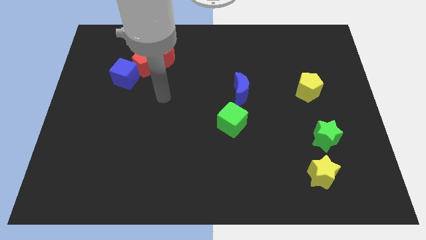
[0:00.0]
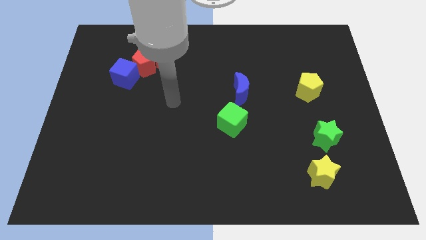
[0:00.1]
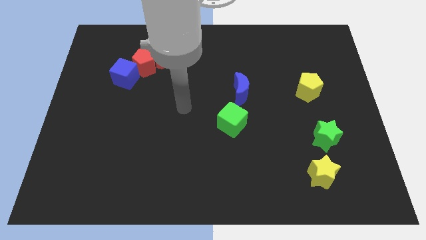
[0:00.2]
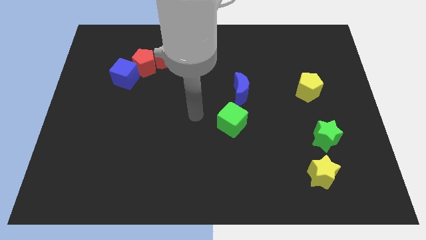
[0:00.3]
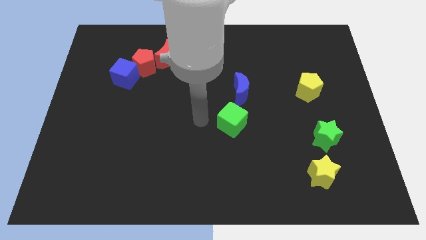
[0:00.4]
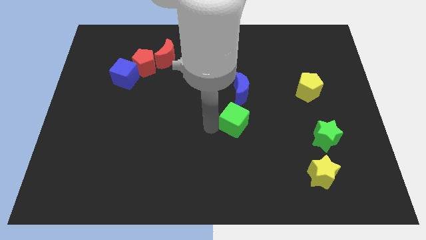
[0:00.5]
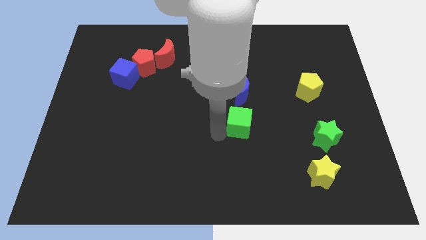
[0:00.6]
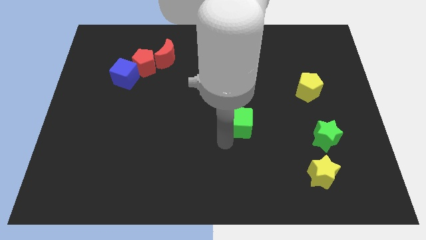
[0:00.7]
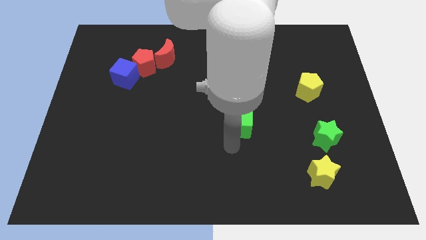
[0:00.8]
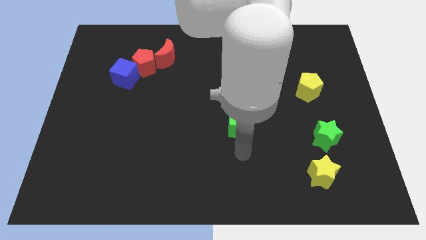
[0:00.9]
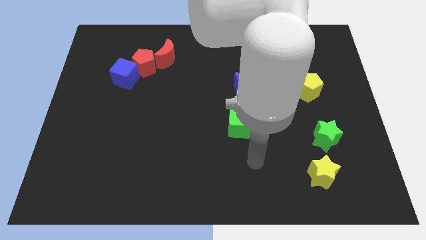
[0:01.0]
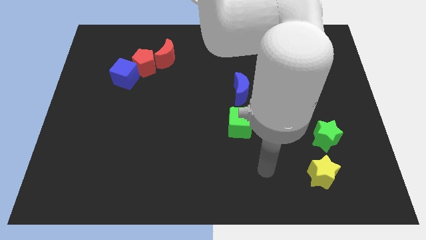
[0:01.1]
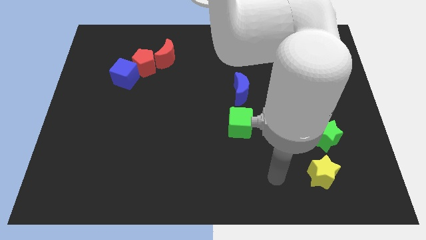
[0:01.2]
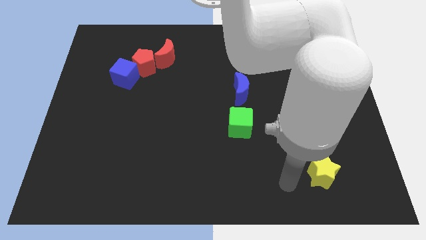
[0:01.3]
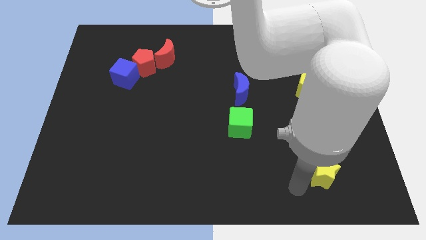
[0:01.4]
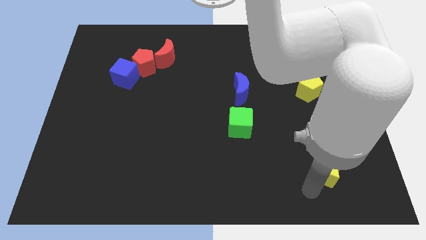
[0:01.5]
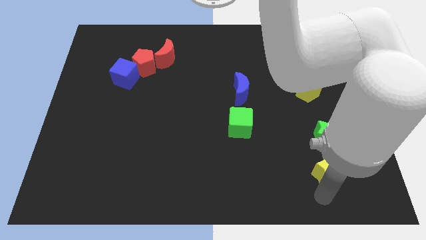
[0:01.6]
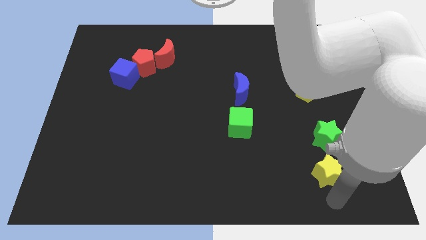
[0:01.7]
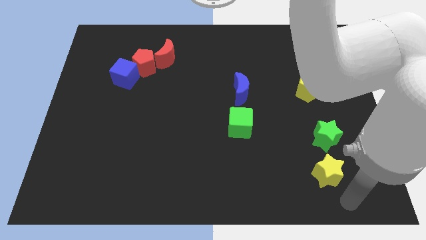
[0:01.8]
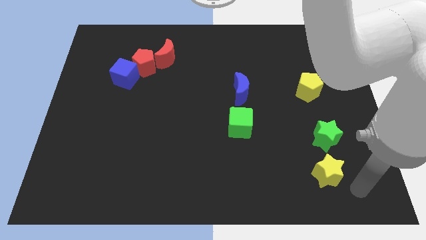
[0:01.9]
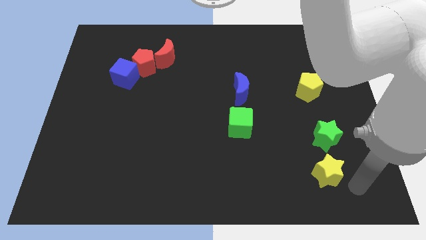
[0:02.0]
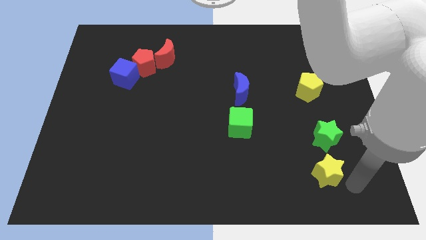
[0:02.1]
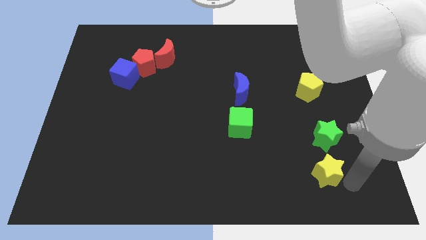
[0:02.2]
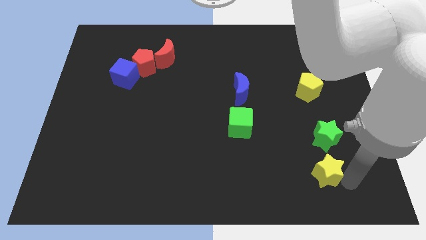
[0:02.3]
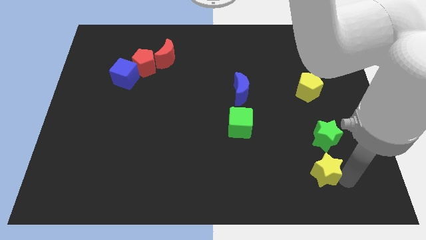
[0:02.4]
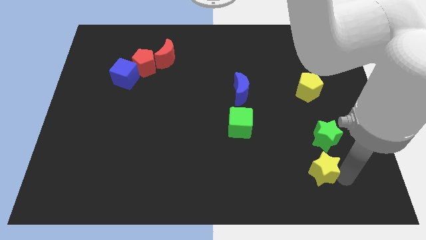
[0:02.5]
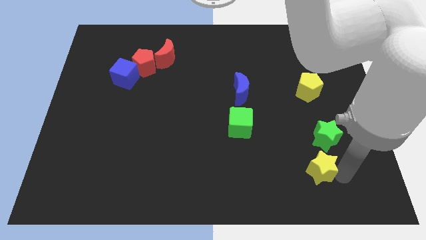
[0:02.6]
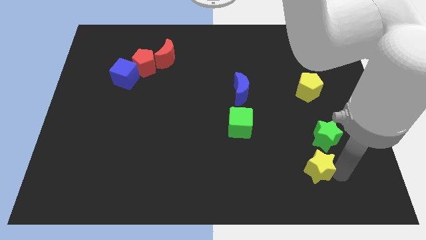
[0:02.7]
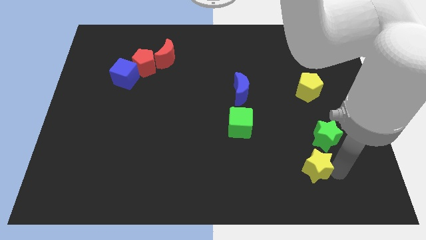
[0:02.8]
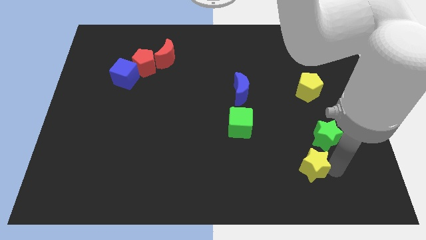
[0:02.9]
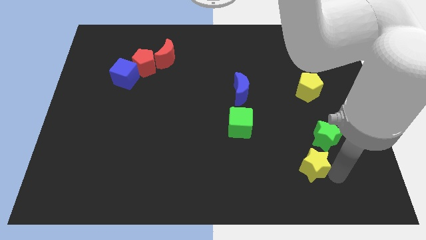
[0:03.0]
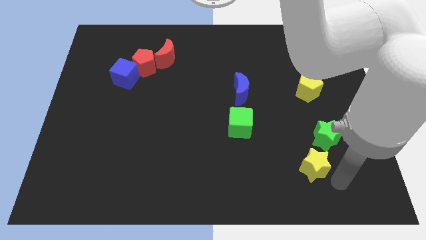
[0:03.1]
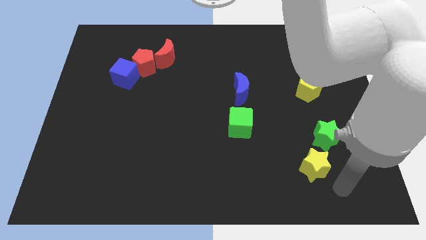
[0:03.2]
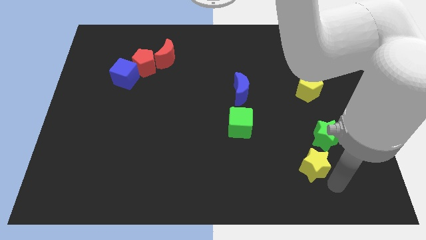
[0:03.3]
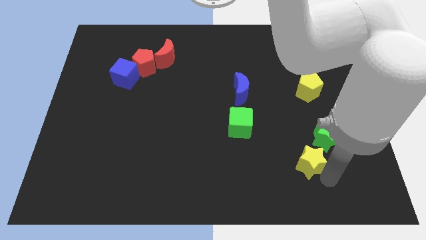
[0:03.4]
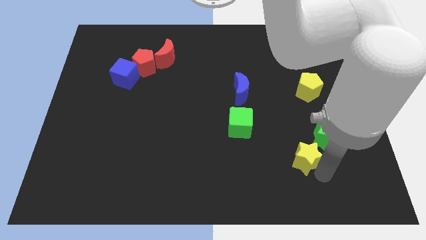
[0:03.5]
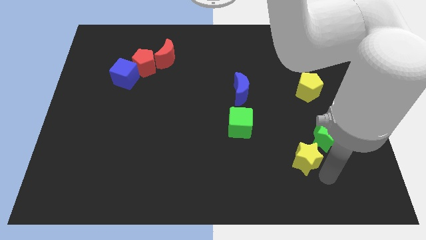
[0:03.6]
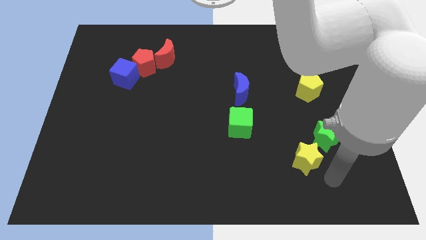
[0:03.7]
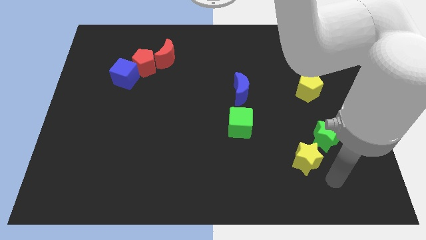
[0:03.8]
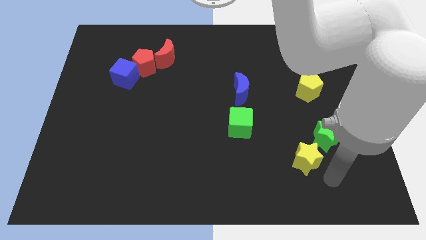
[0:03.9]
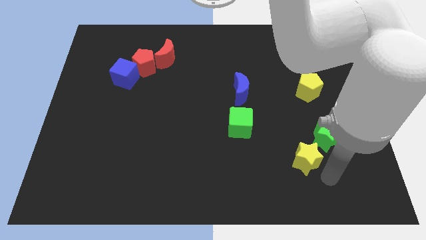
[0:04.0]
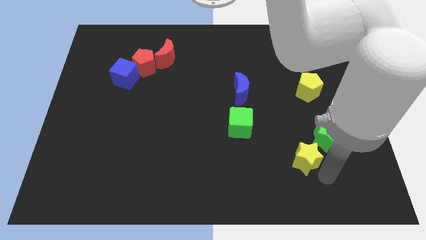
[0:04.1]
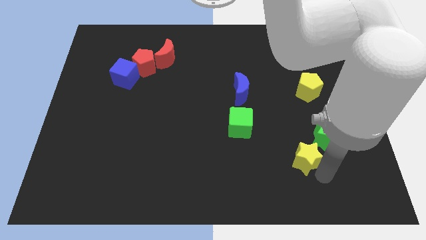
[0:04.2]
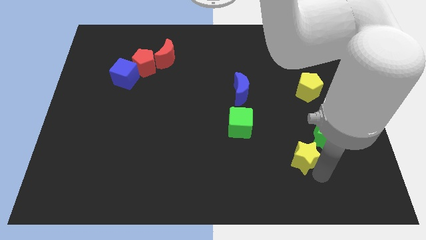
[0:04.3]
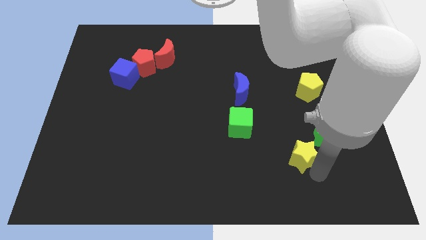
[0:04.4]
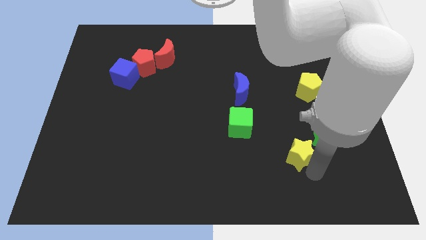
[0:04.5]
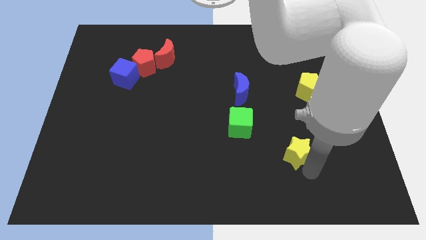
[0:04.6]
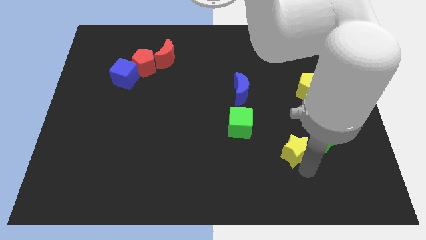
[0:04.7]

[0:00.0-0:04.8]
slide the yellow star diagonally upwards and to the left somewhat

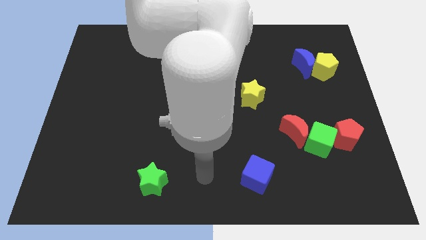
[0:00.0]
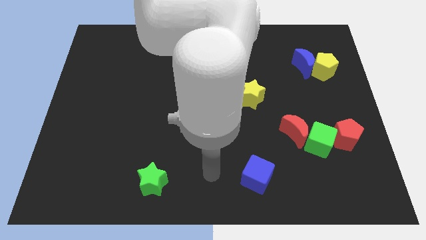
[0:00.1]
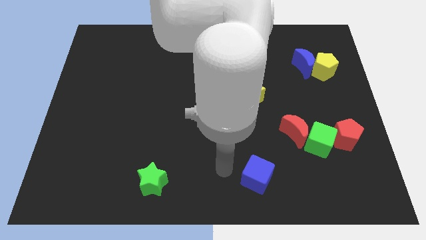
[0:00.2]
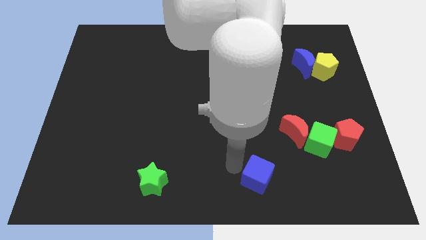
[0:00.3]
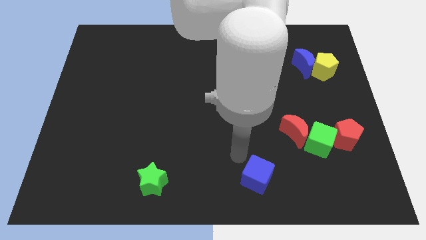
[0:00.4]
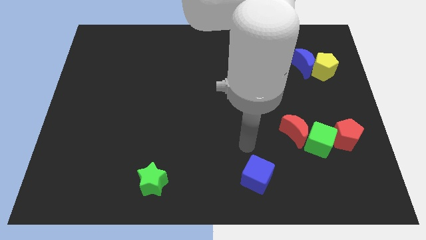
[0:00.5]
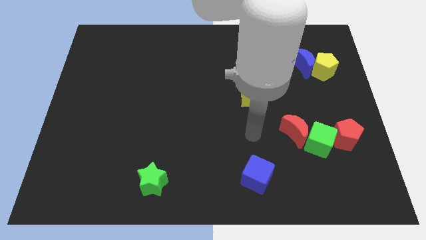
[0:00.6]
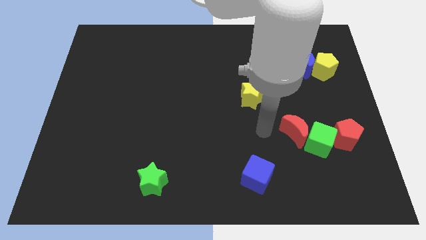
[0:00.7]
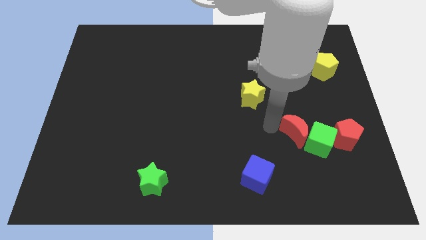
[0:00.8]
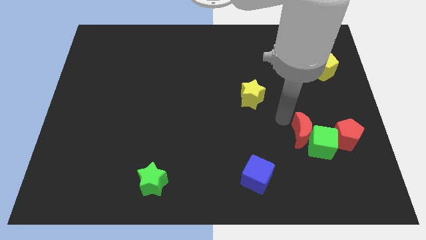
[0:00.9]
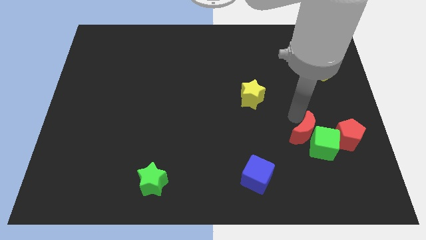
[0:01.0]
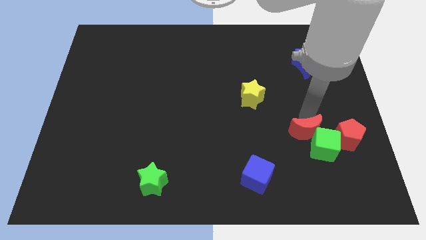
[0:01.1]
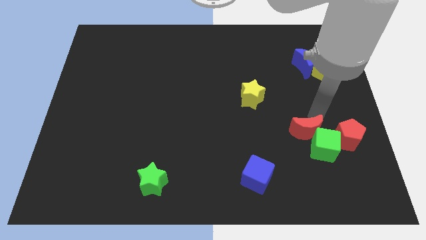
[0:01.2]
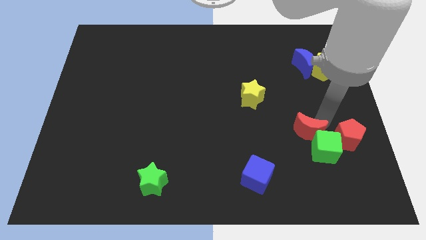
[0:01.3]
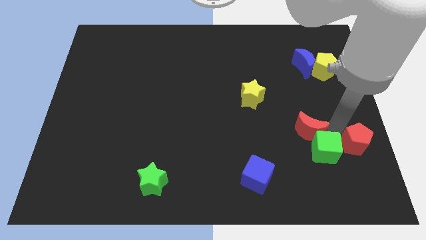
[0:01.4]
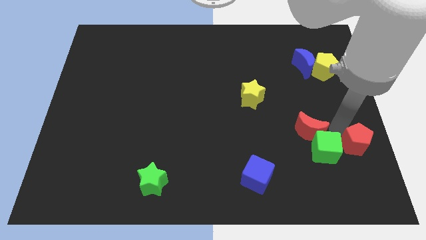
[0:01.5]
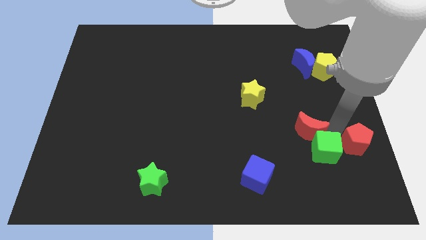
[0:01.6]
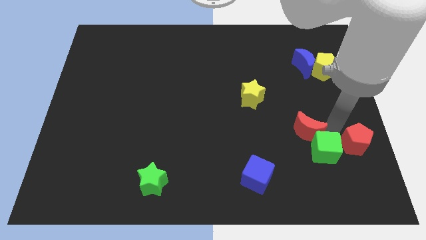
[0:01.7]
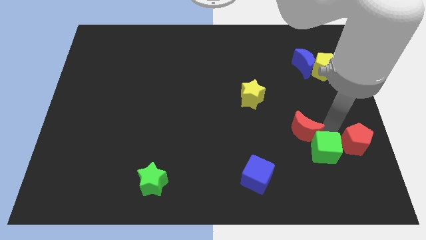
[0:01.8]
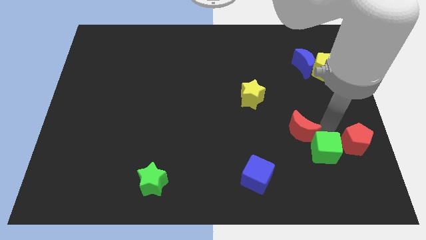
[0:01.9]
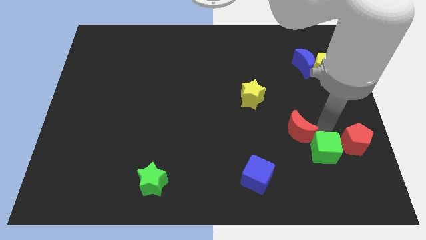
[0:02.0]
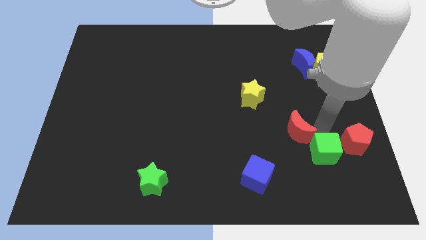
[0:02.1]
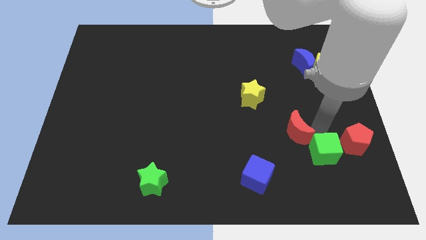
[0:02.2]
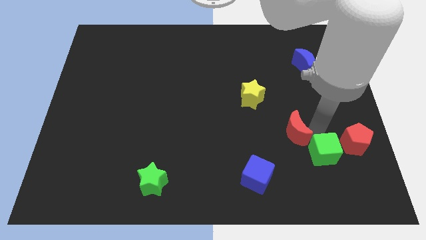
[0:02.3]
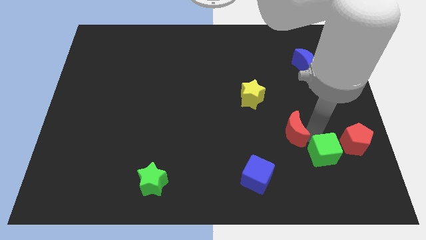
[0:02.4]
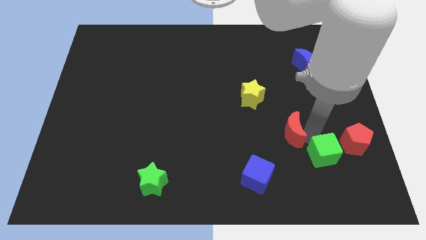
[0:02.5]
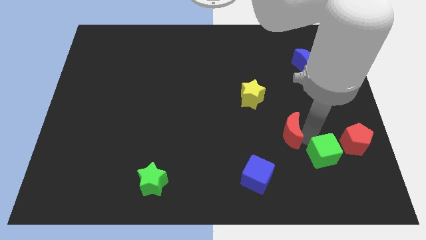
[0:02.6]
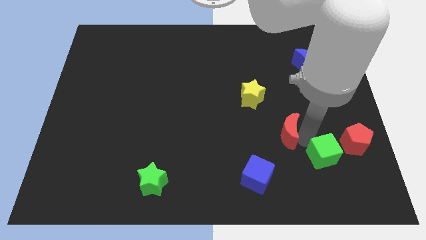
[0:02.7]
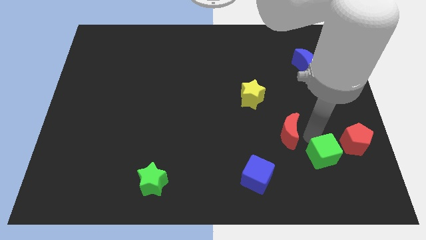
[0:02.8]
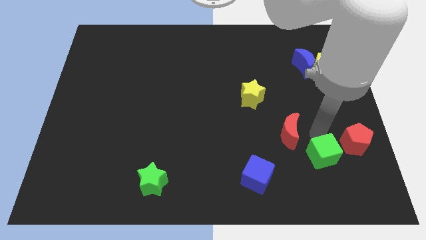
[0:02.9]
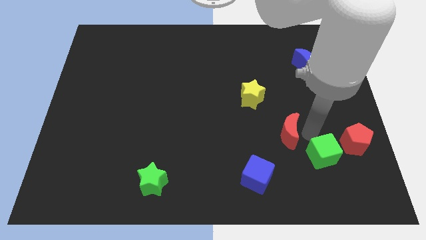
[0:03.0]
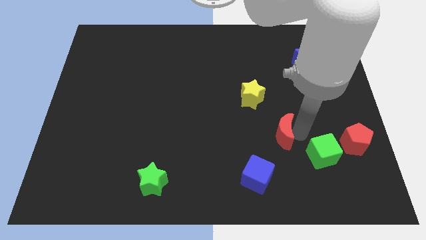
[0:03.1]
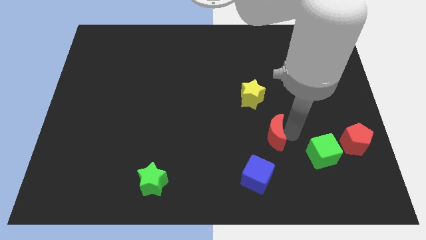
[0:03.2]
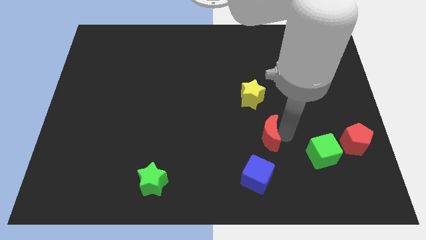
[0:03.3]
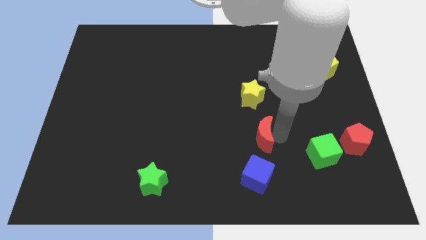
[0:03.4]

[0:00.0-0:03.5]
move the red moon slightly left
